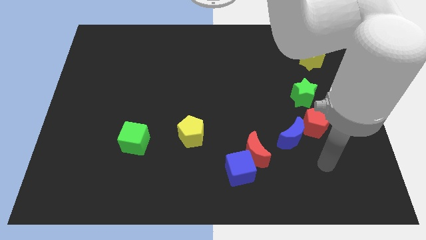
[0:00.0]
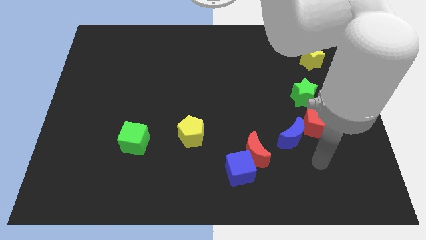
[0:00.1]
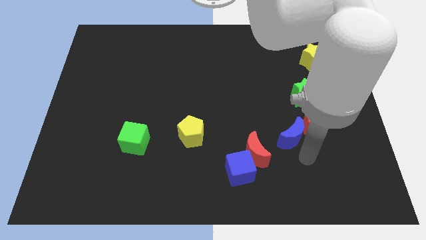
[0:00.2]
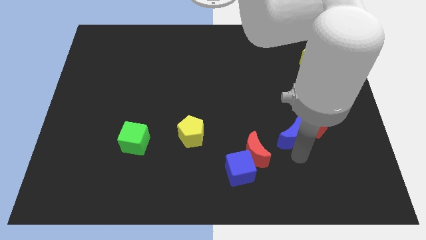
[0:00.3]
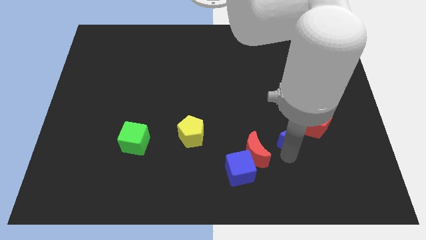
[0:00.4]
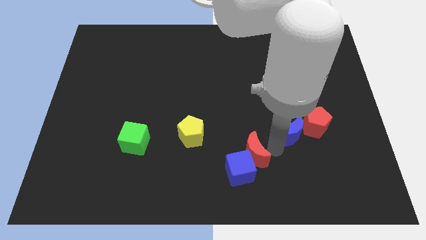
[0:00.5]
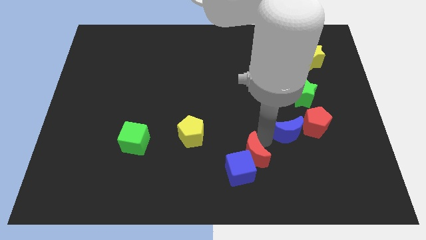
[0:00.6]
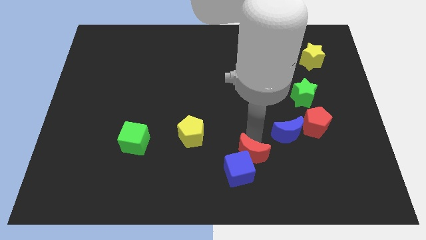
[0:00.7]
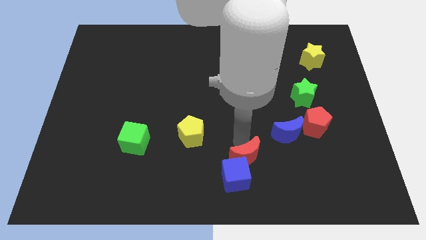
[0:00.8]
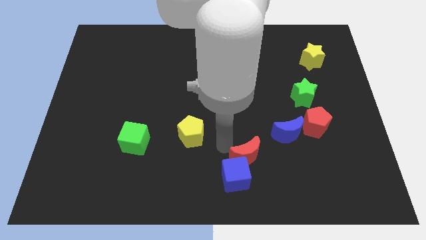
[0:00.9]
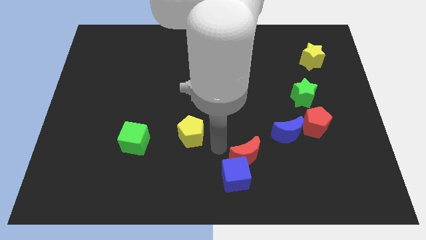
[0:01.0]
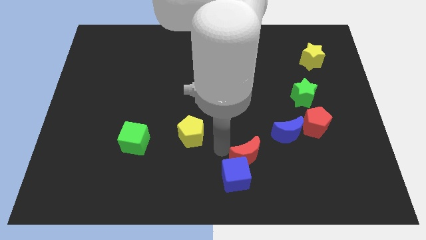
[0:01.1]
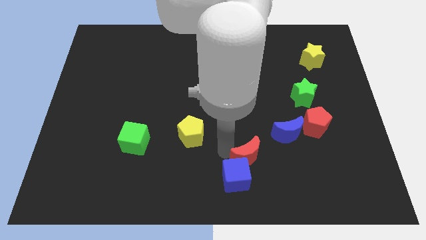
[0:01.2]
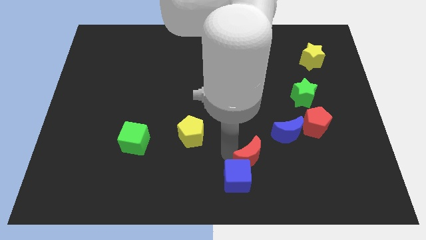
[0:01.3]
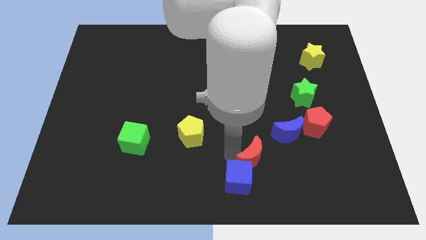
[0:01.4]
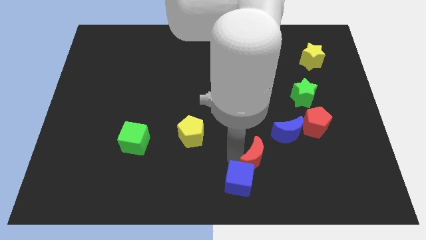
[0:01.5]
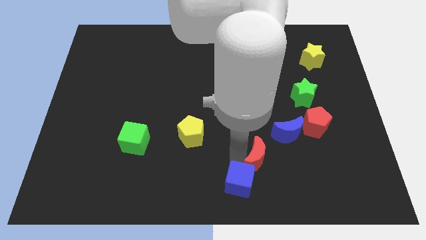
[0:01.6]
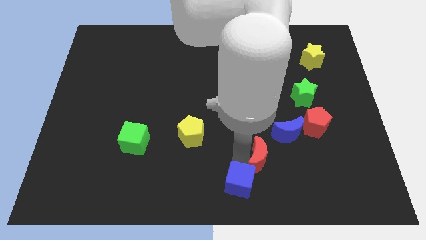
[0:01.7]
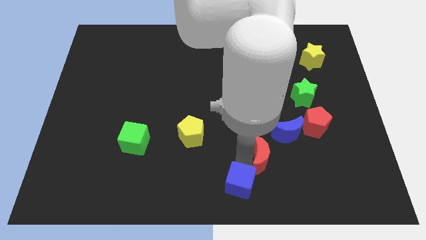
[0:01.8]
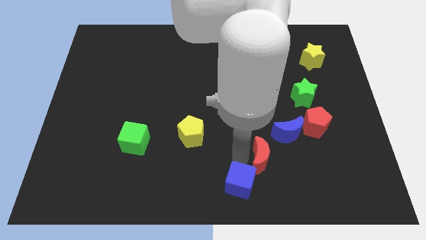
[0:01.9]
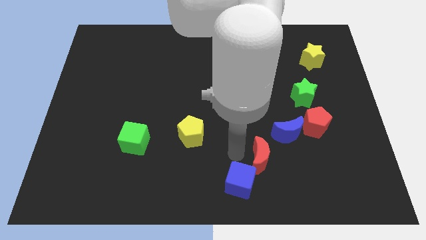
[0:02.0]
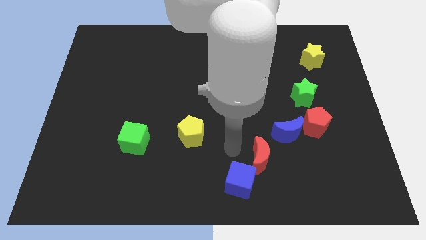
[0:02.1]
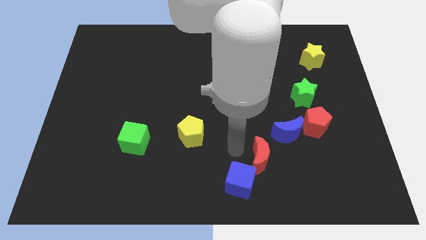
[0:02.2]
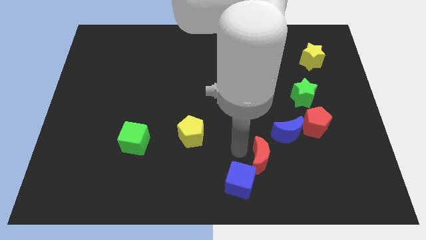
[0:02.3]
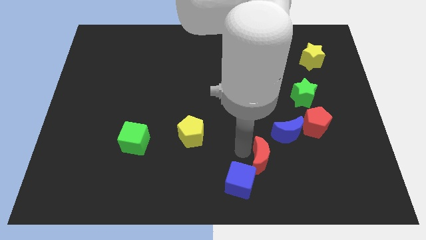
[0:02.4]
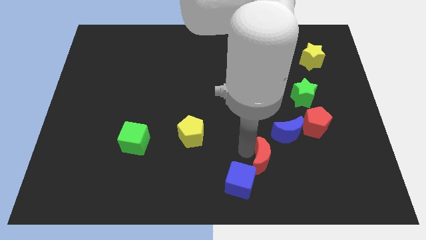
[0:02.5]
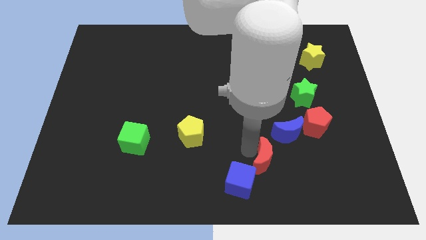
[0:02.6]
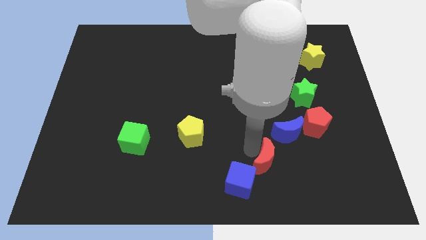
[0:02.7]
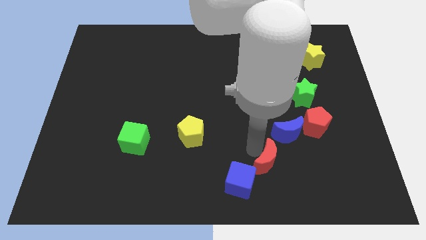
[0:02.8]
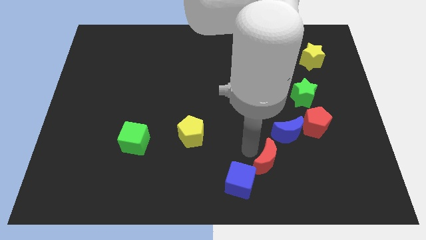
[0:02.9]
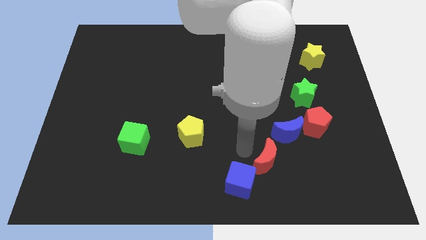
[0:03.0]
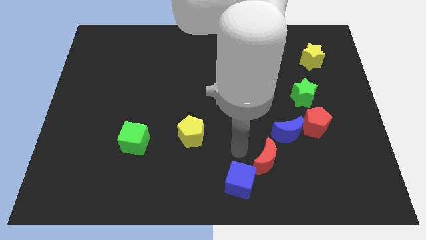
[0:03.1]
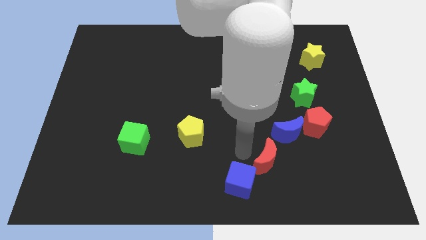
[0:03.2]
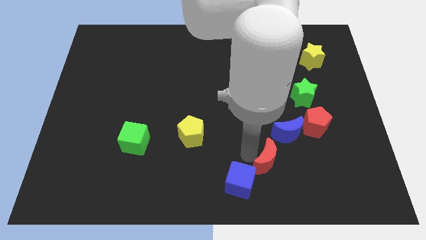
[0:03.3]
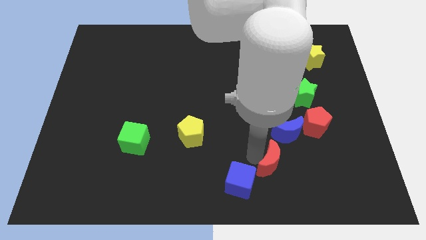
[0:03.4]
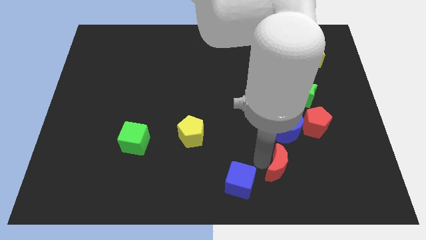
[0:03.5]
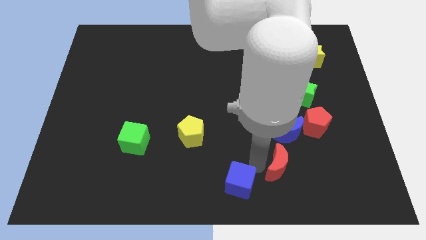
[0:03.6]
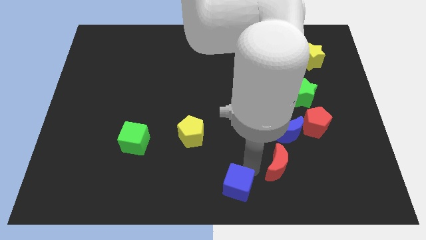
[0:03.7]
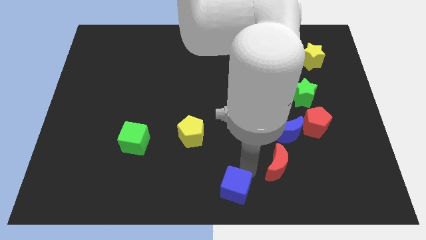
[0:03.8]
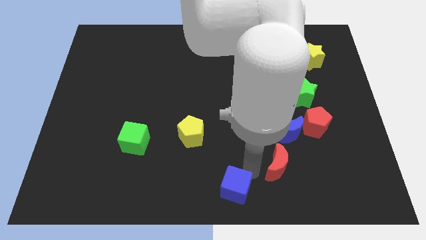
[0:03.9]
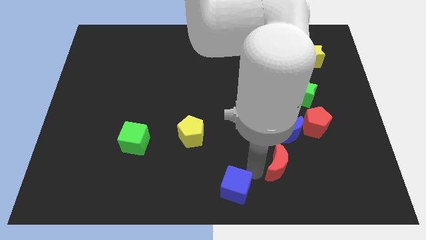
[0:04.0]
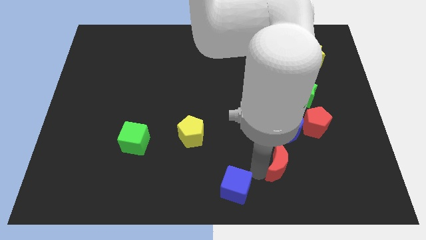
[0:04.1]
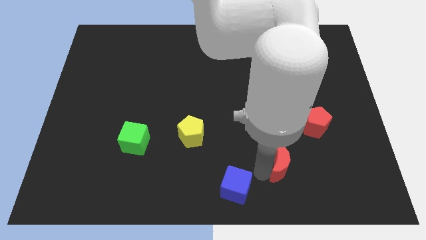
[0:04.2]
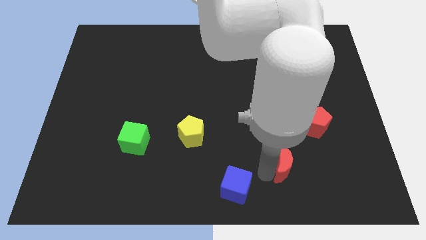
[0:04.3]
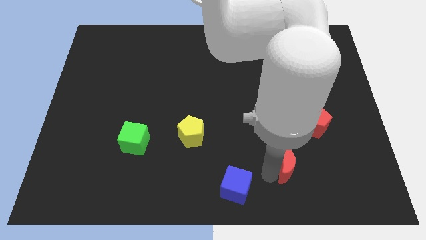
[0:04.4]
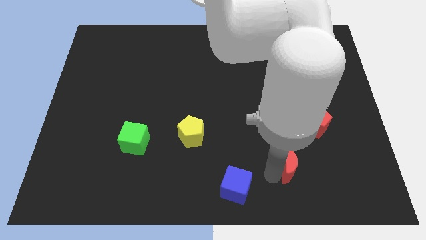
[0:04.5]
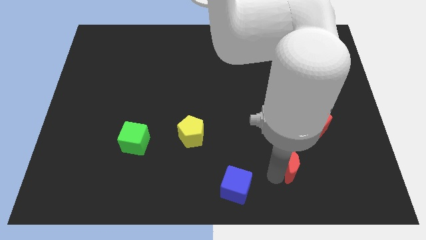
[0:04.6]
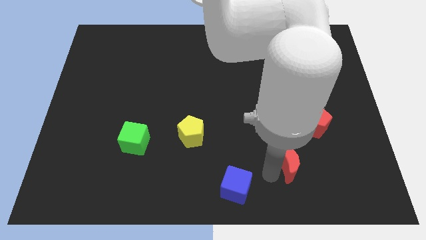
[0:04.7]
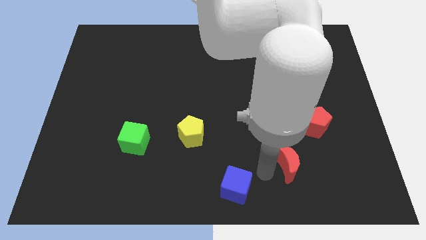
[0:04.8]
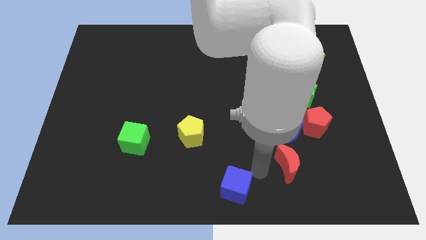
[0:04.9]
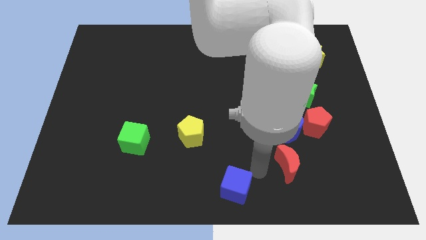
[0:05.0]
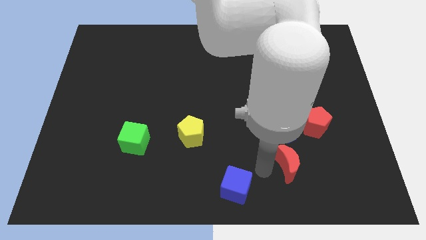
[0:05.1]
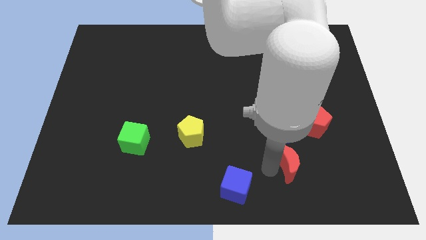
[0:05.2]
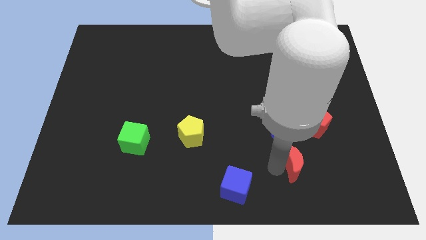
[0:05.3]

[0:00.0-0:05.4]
slide the red moon right somewhat

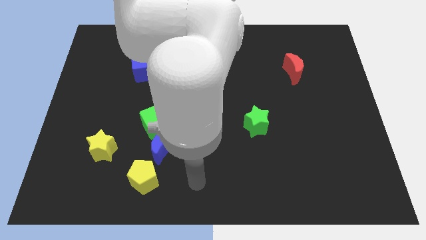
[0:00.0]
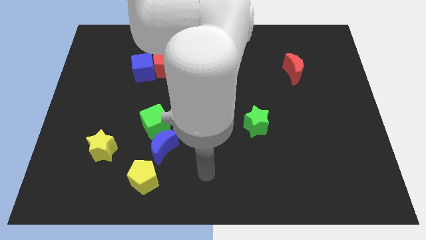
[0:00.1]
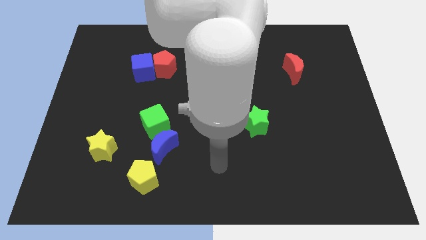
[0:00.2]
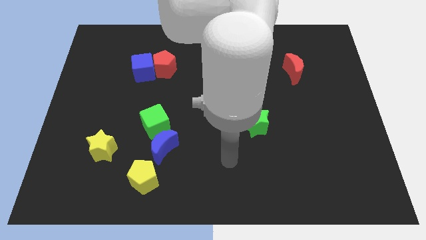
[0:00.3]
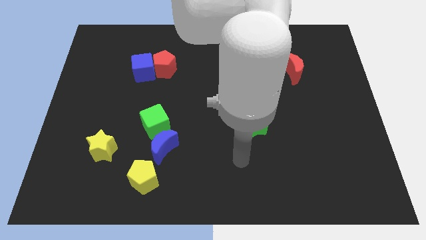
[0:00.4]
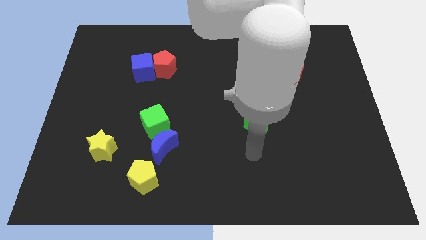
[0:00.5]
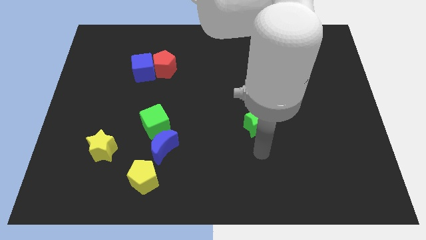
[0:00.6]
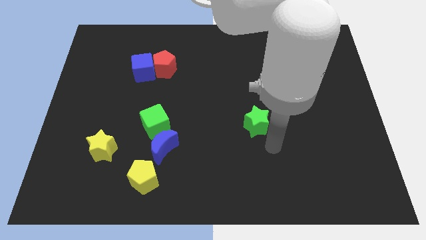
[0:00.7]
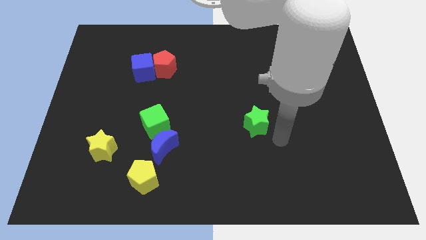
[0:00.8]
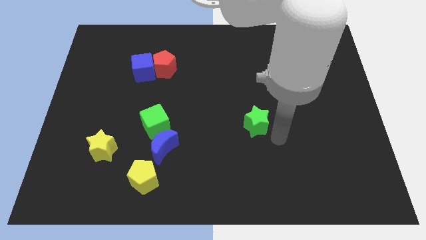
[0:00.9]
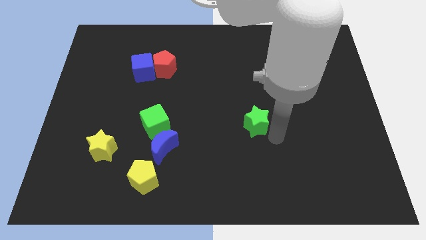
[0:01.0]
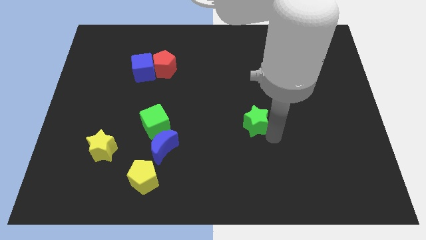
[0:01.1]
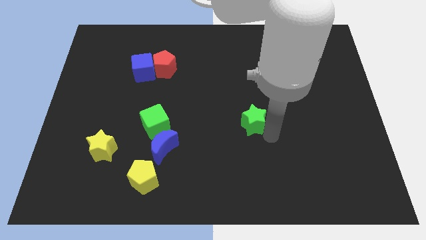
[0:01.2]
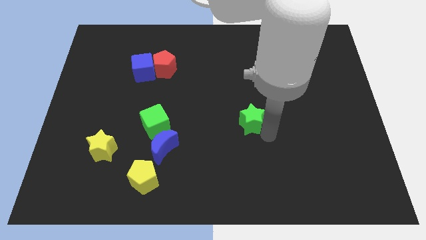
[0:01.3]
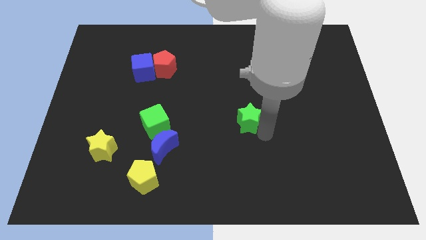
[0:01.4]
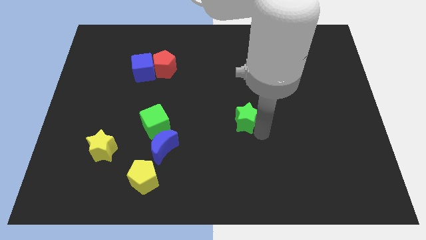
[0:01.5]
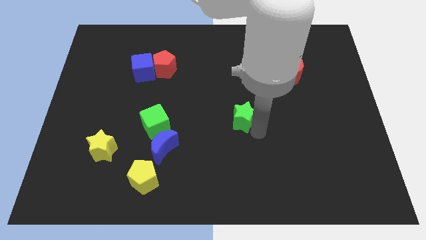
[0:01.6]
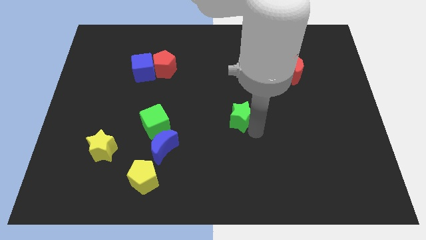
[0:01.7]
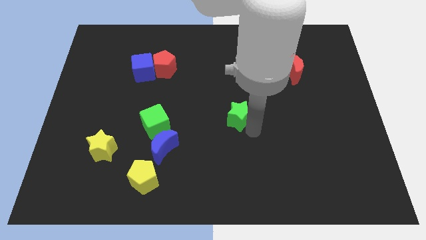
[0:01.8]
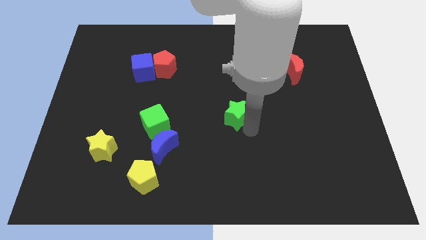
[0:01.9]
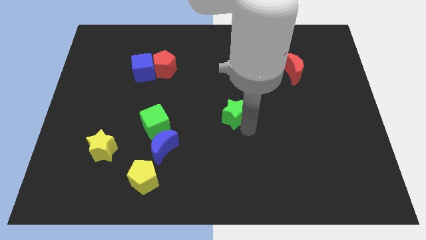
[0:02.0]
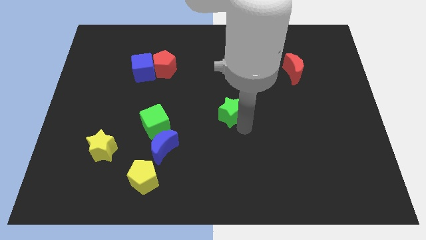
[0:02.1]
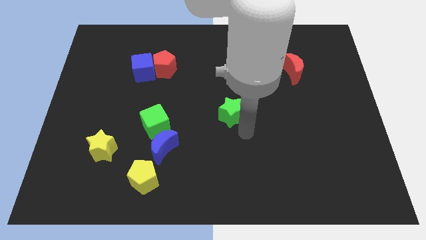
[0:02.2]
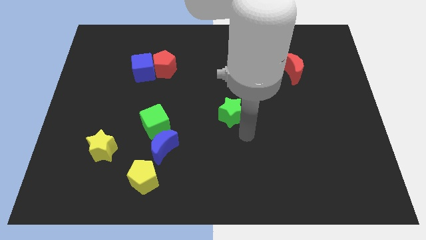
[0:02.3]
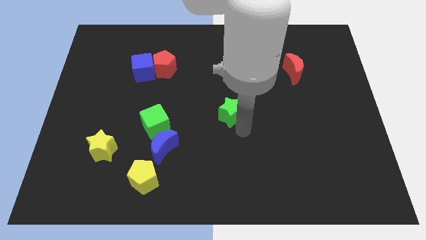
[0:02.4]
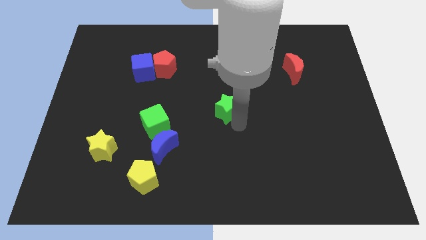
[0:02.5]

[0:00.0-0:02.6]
push the green star up and left diagonally slightly
